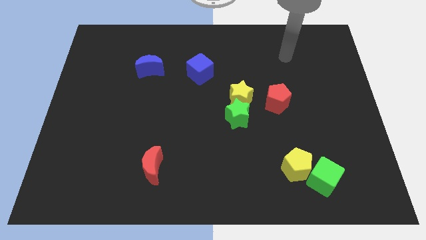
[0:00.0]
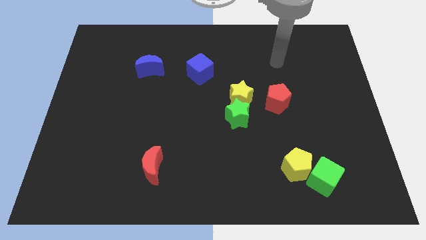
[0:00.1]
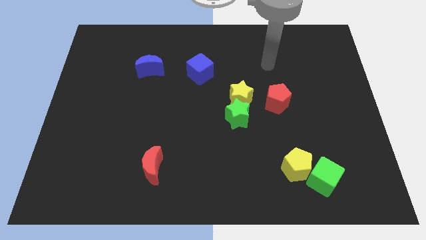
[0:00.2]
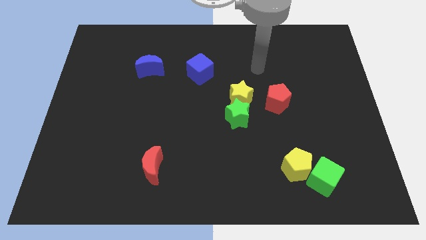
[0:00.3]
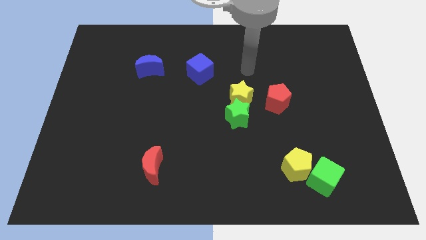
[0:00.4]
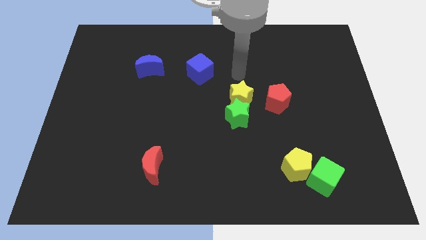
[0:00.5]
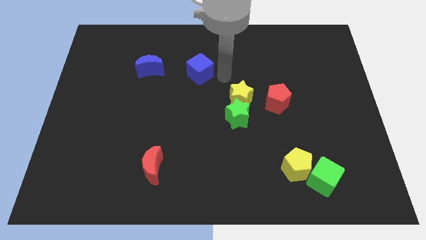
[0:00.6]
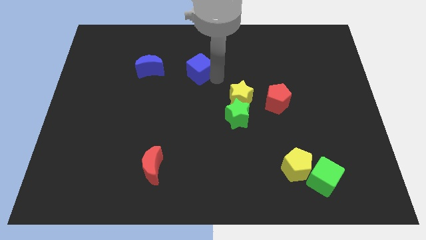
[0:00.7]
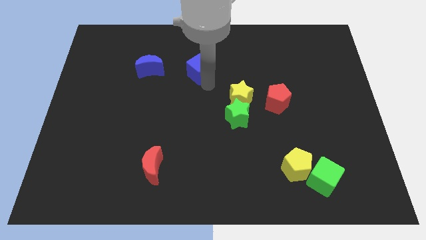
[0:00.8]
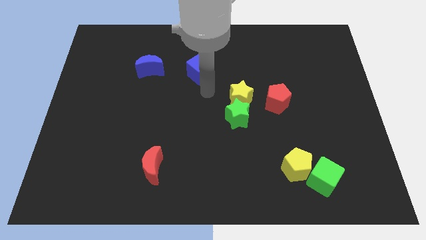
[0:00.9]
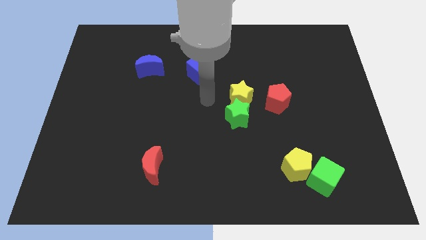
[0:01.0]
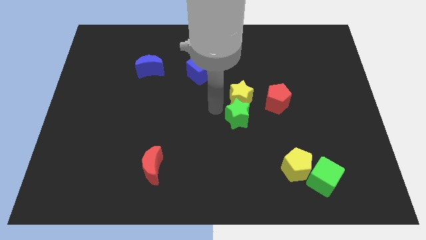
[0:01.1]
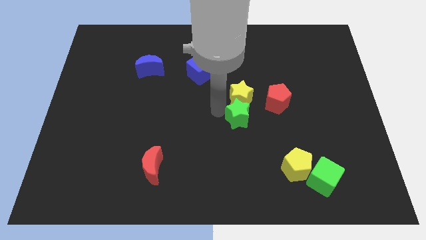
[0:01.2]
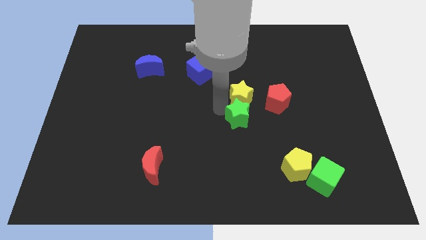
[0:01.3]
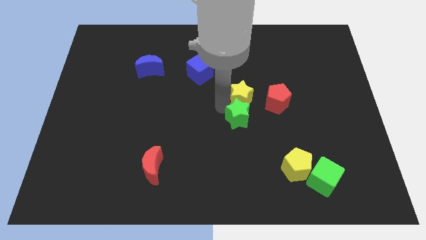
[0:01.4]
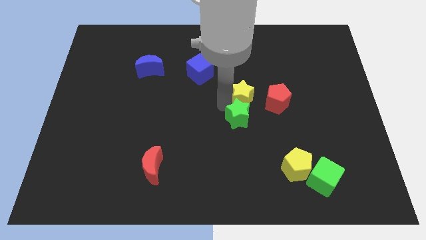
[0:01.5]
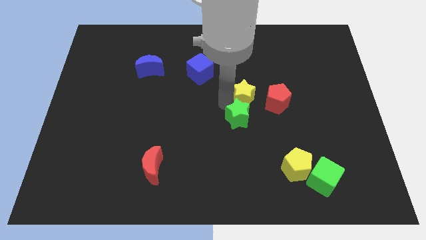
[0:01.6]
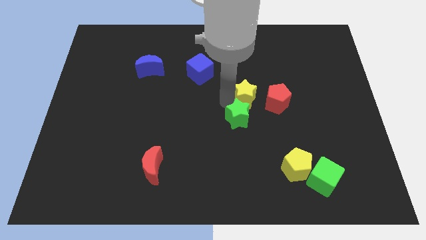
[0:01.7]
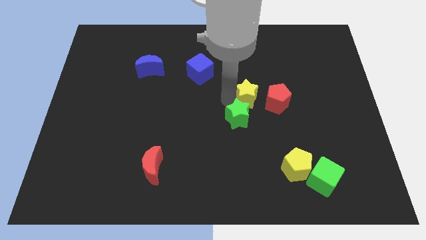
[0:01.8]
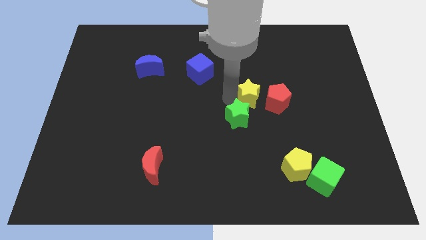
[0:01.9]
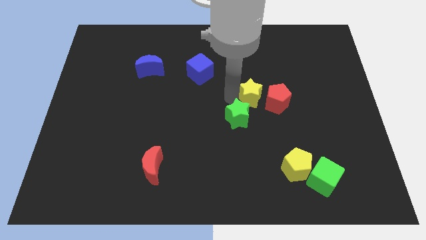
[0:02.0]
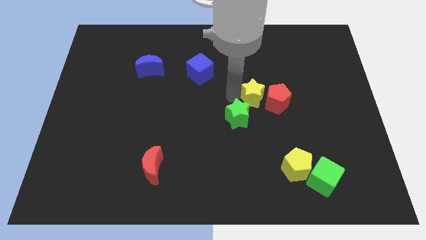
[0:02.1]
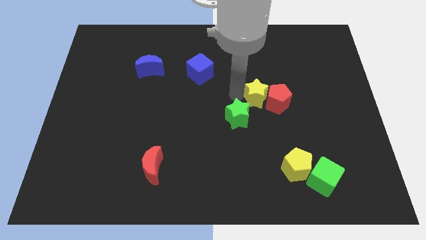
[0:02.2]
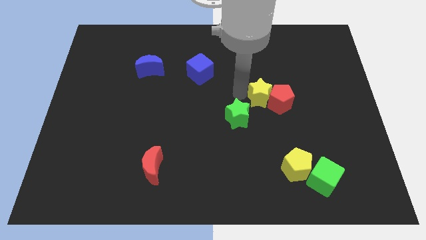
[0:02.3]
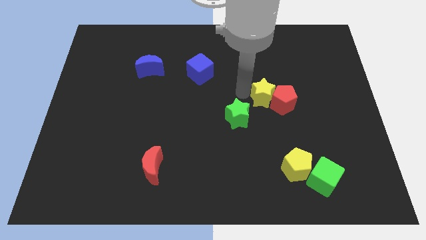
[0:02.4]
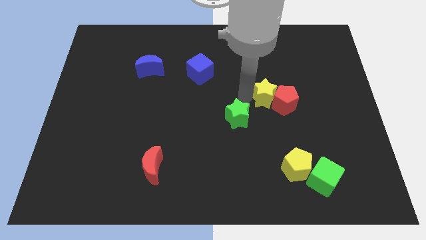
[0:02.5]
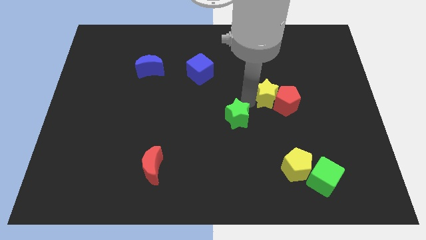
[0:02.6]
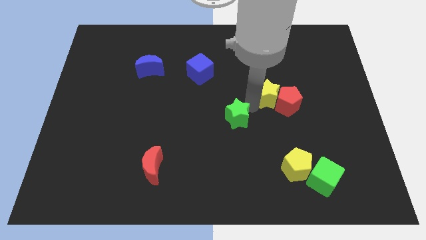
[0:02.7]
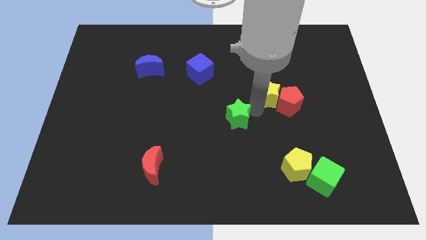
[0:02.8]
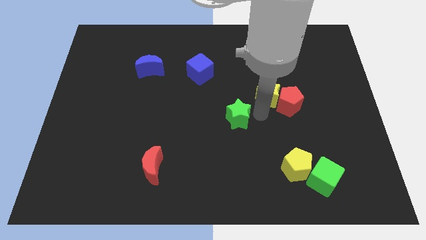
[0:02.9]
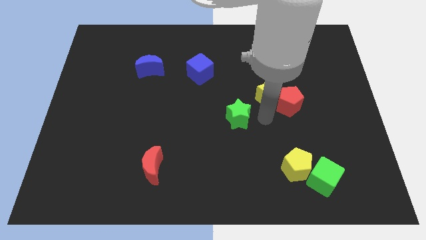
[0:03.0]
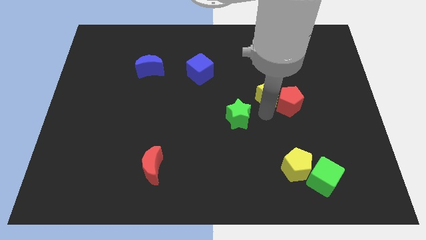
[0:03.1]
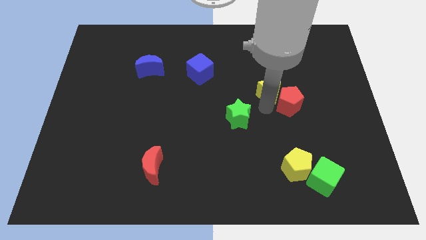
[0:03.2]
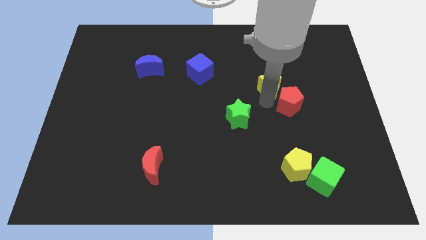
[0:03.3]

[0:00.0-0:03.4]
push the yellow star upwards and then to the right a little

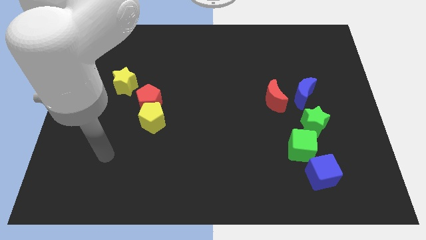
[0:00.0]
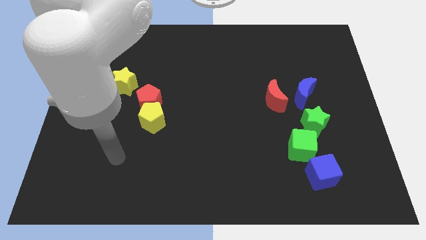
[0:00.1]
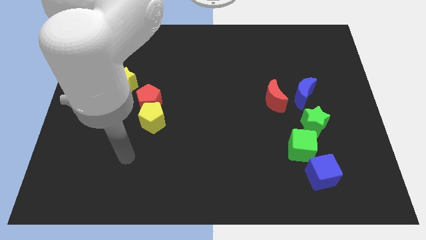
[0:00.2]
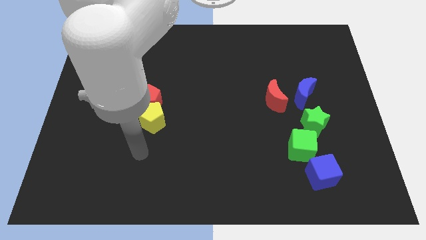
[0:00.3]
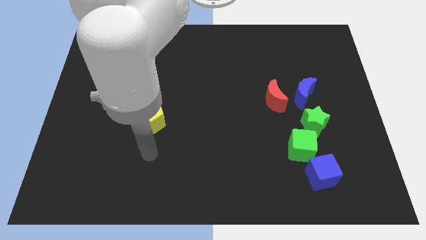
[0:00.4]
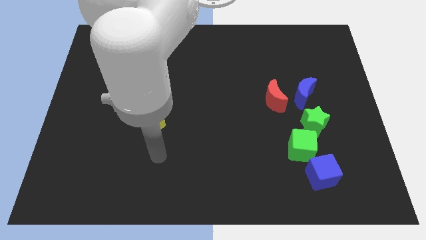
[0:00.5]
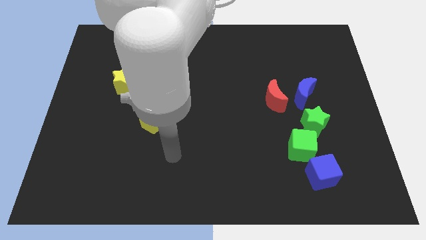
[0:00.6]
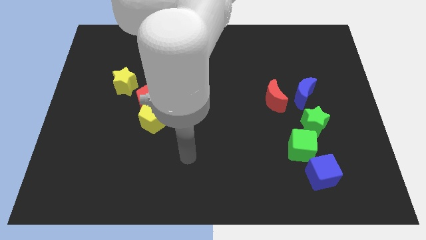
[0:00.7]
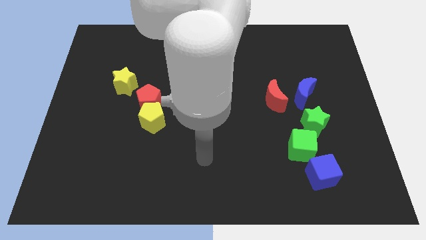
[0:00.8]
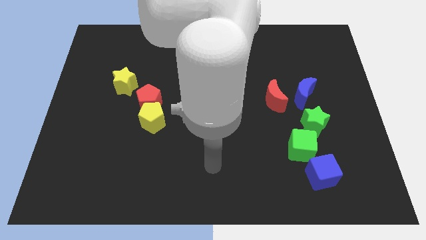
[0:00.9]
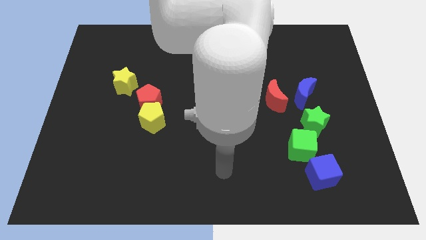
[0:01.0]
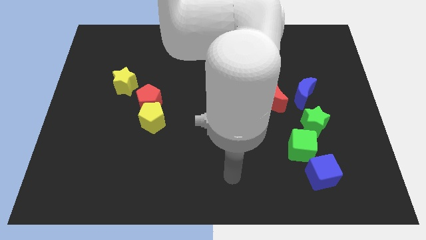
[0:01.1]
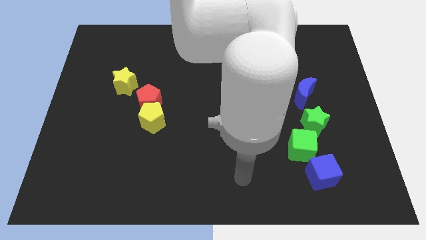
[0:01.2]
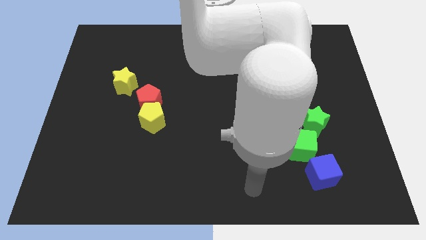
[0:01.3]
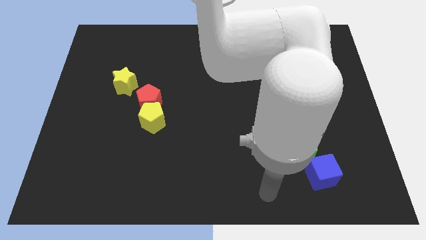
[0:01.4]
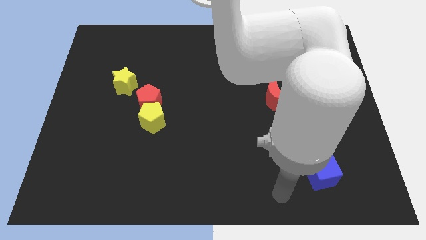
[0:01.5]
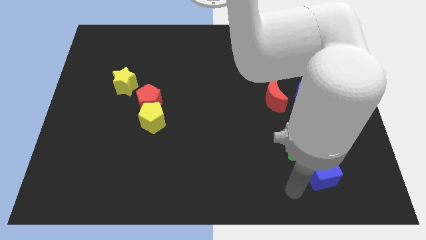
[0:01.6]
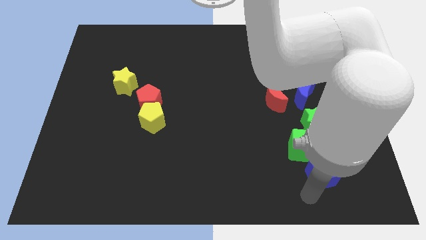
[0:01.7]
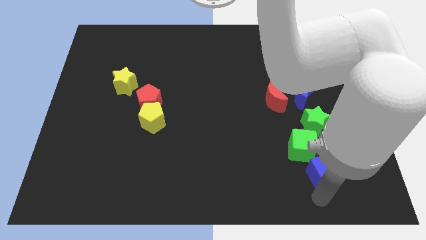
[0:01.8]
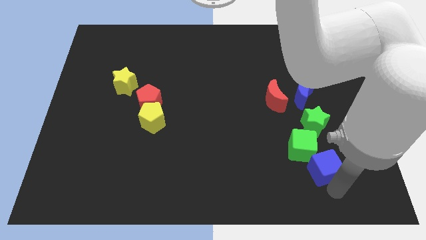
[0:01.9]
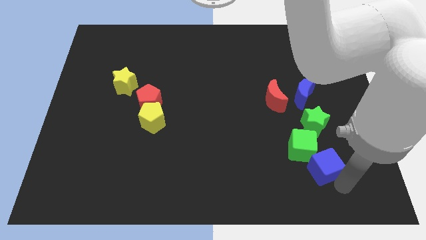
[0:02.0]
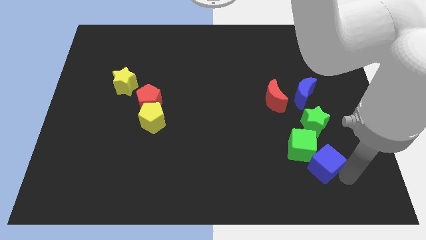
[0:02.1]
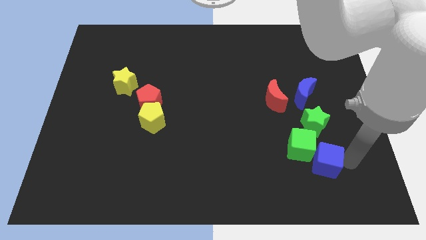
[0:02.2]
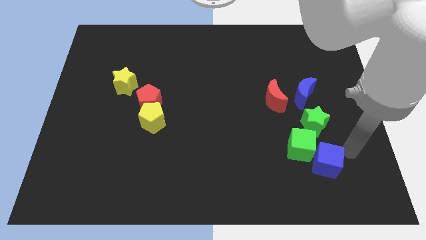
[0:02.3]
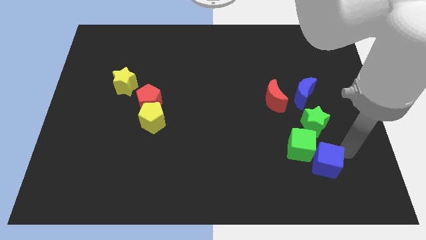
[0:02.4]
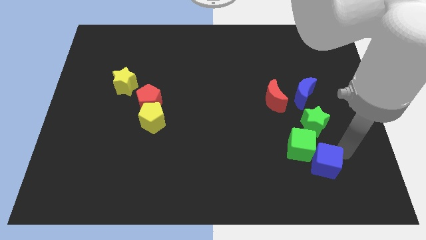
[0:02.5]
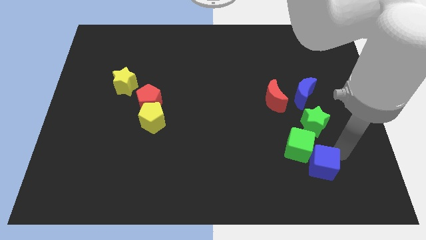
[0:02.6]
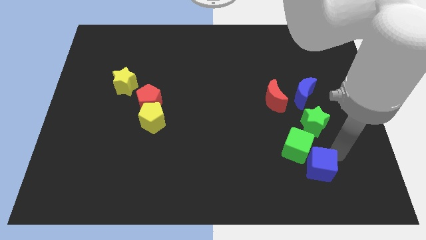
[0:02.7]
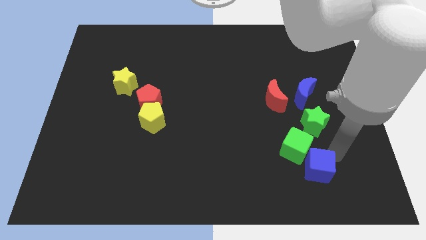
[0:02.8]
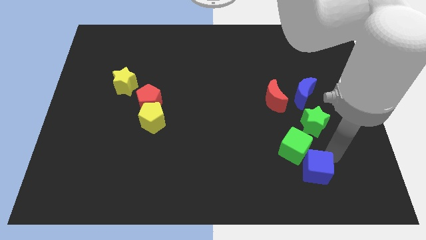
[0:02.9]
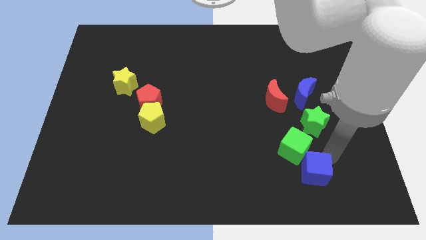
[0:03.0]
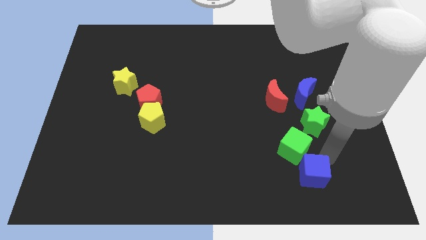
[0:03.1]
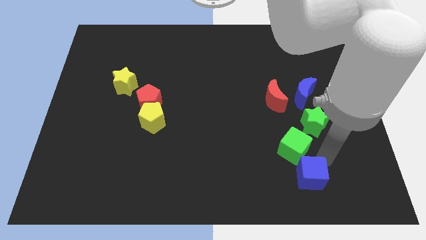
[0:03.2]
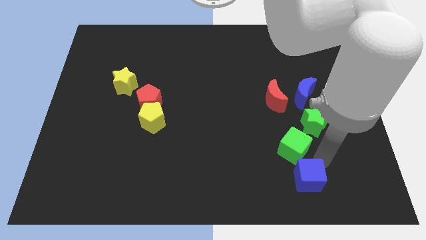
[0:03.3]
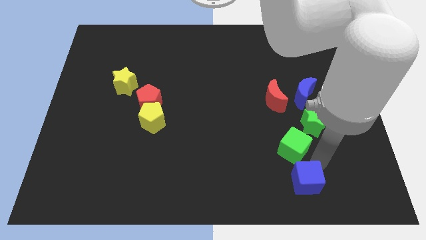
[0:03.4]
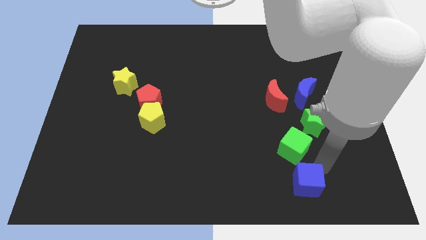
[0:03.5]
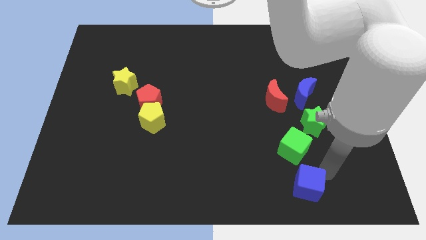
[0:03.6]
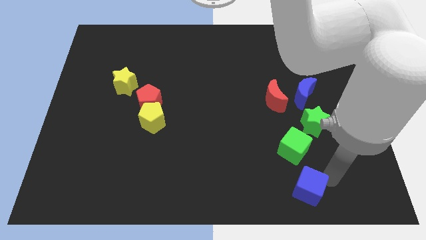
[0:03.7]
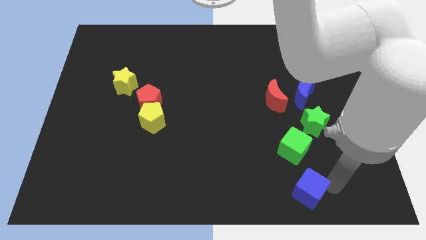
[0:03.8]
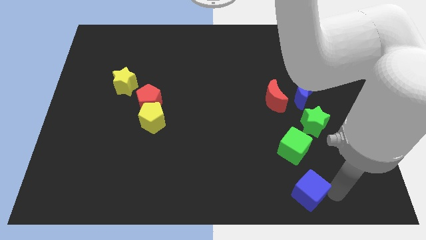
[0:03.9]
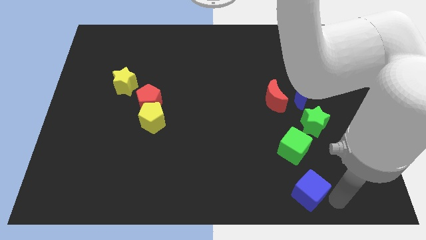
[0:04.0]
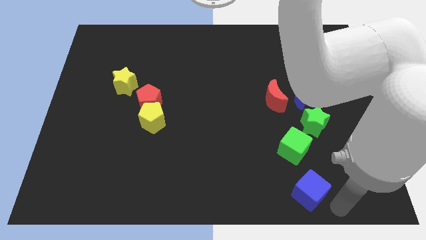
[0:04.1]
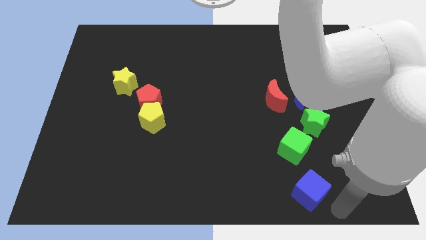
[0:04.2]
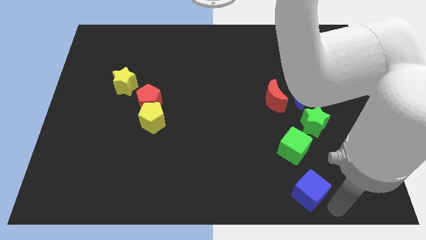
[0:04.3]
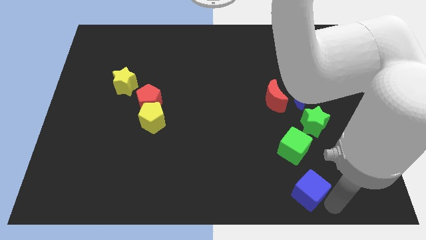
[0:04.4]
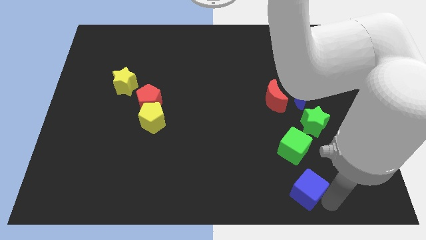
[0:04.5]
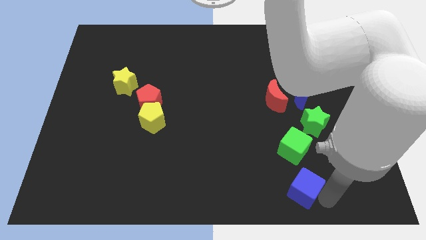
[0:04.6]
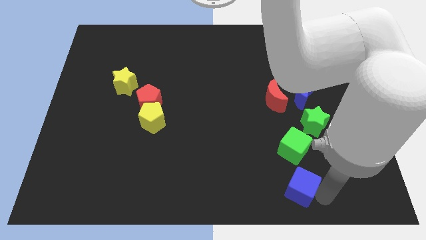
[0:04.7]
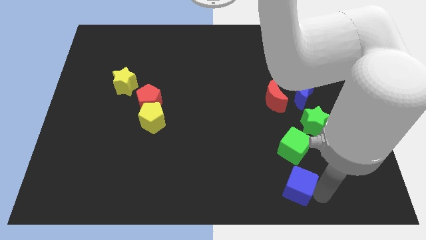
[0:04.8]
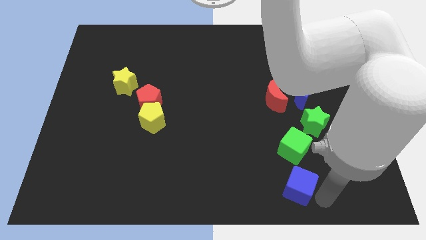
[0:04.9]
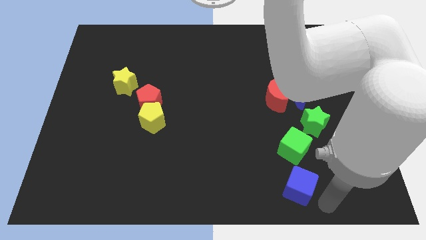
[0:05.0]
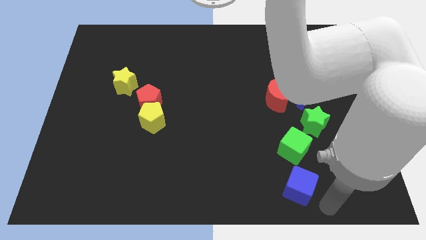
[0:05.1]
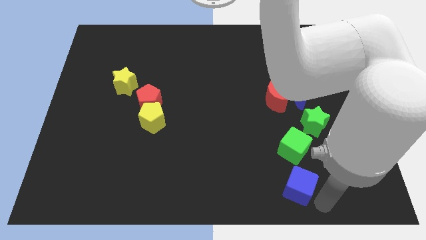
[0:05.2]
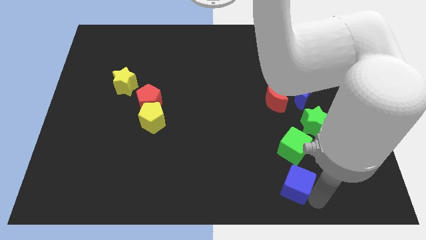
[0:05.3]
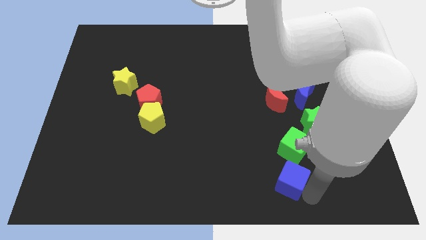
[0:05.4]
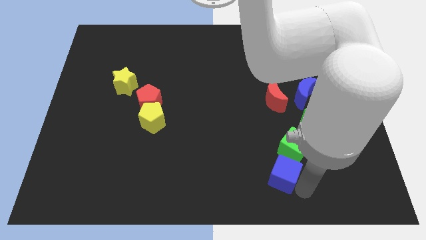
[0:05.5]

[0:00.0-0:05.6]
slightly move the blue cube to the left
